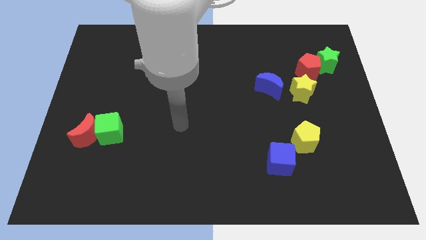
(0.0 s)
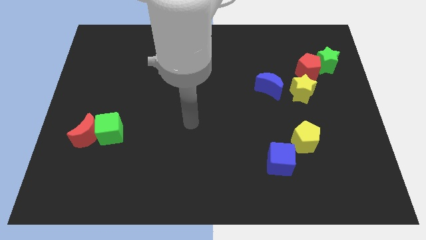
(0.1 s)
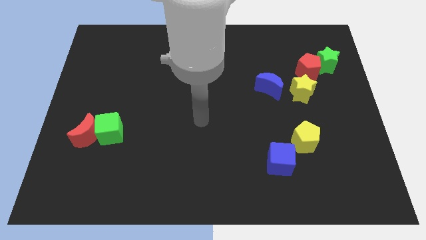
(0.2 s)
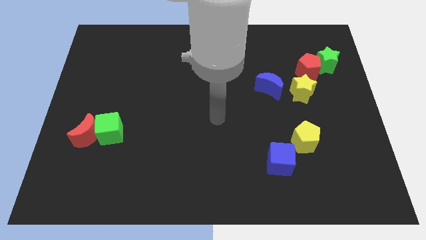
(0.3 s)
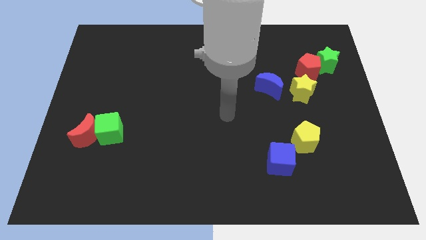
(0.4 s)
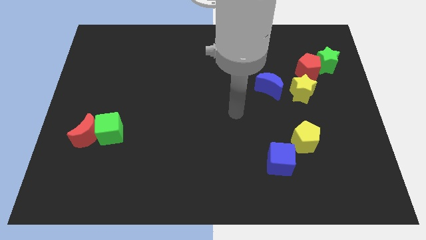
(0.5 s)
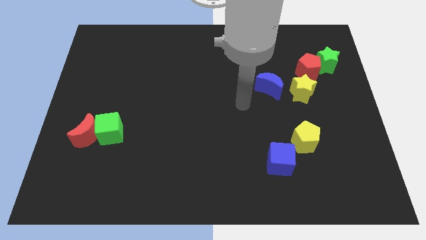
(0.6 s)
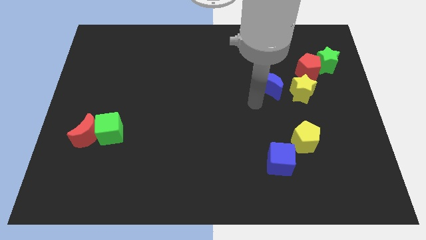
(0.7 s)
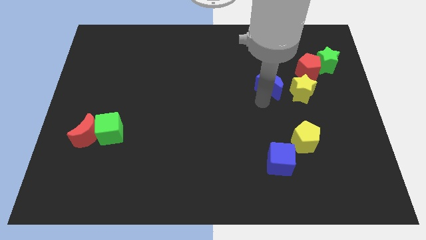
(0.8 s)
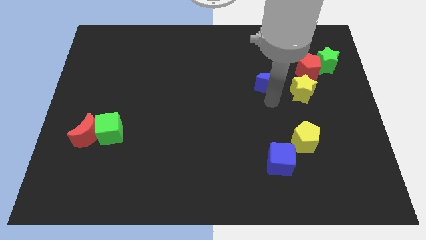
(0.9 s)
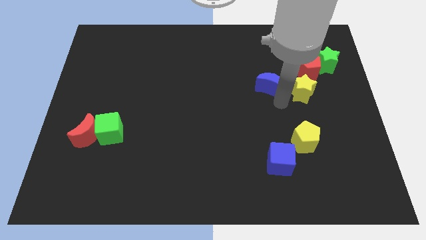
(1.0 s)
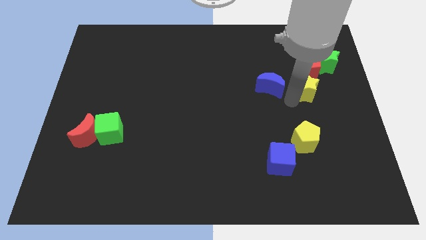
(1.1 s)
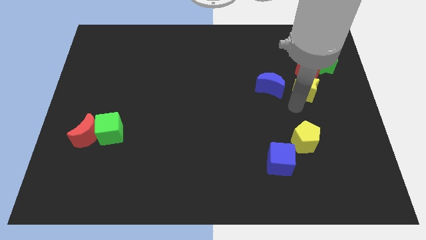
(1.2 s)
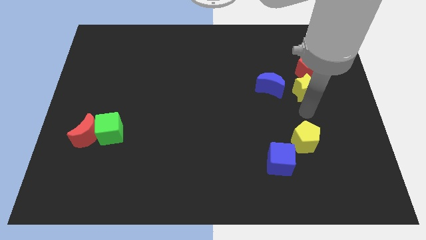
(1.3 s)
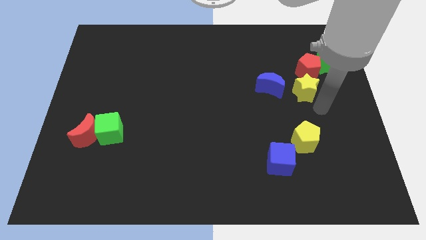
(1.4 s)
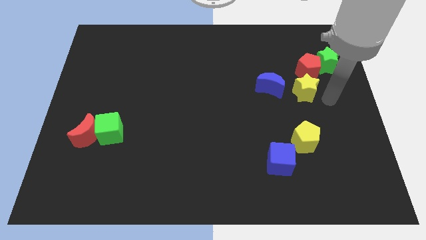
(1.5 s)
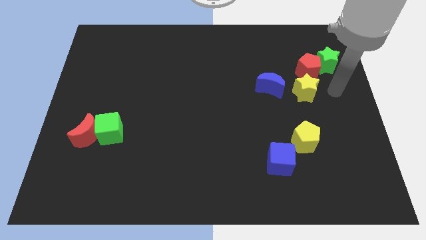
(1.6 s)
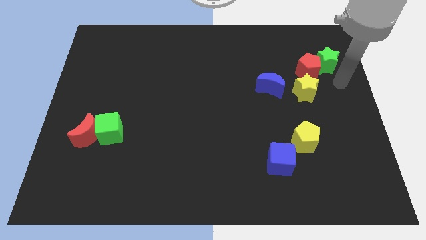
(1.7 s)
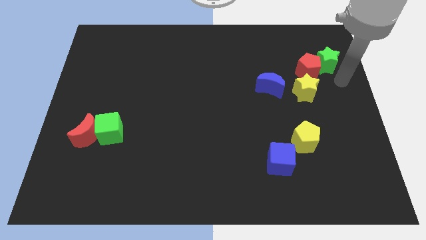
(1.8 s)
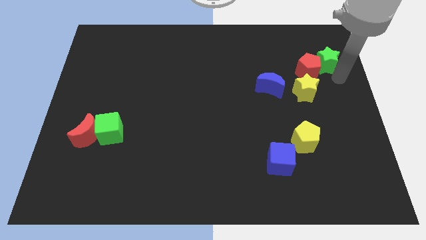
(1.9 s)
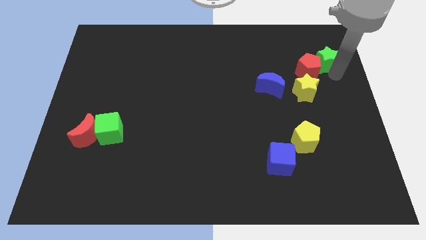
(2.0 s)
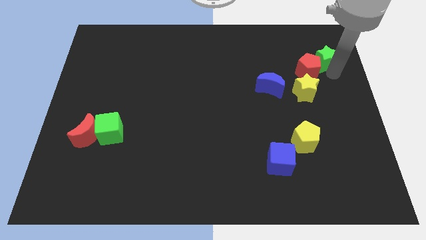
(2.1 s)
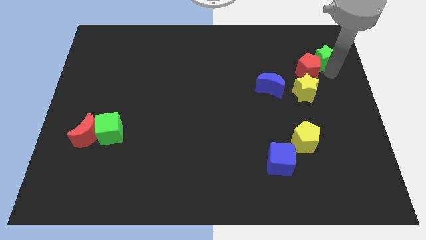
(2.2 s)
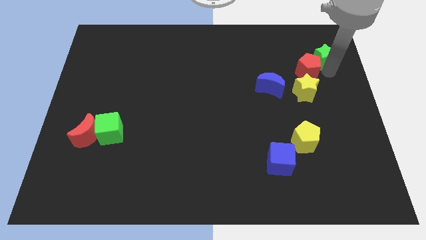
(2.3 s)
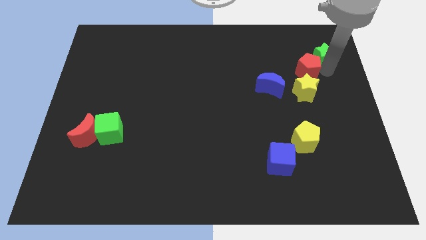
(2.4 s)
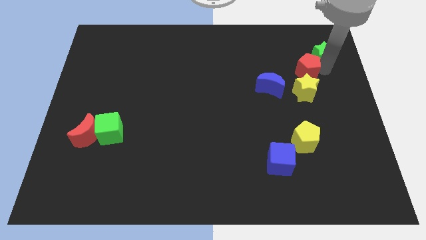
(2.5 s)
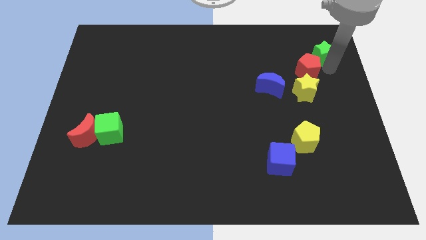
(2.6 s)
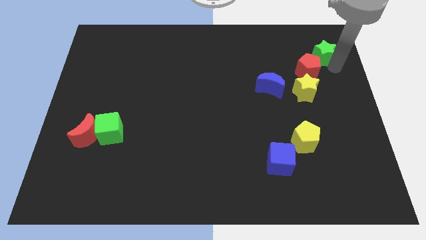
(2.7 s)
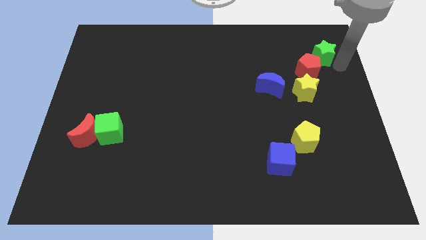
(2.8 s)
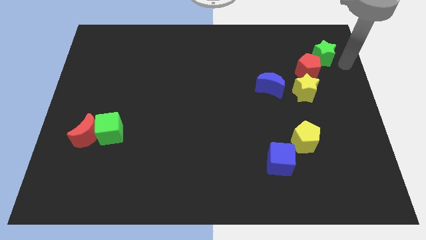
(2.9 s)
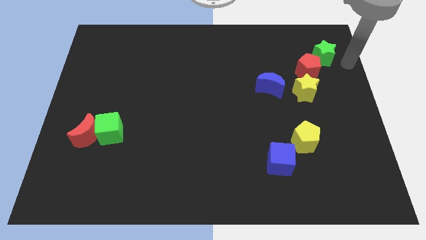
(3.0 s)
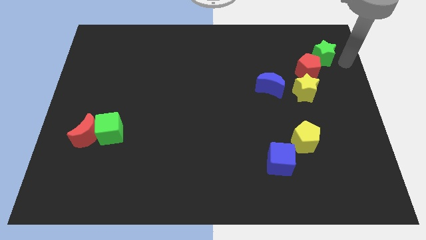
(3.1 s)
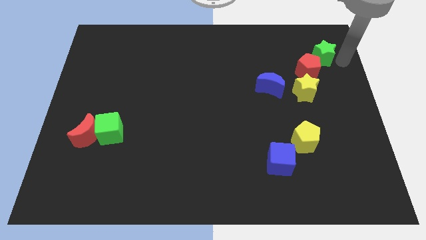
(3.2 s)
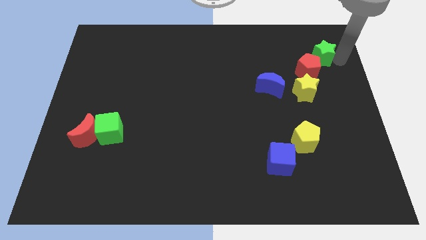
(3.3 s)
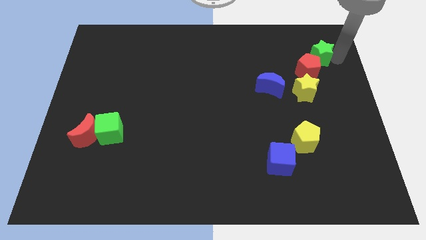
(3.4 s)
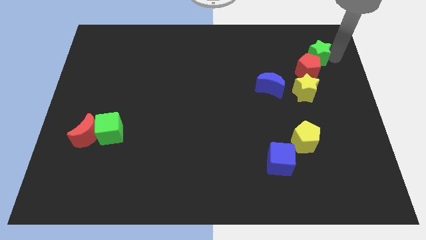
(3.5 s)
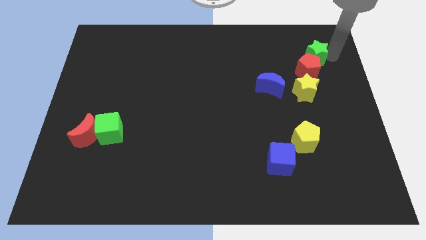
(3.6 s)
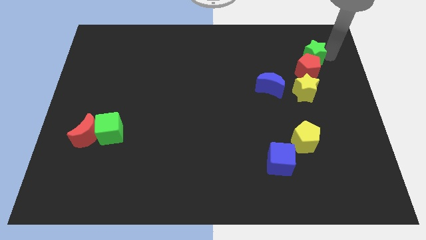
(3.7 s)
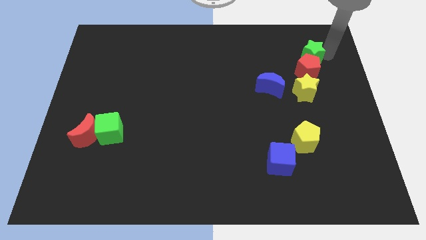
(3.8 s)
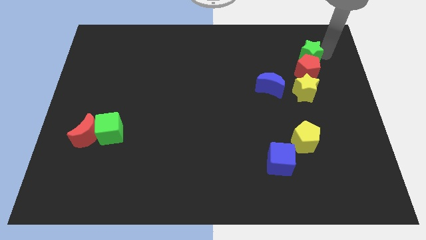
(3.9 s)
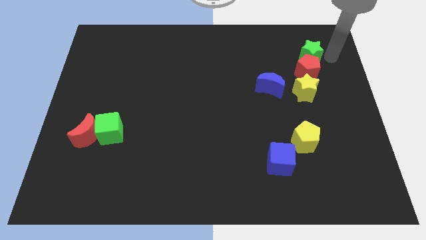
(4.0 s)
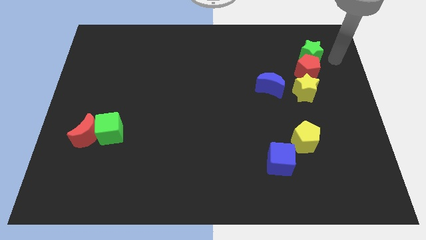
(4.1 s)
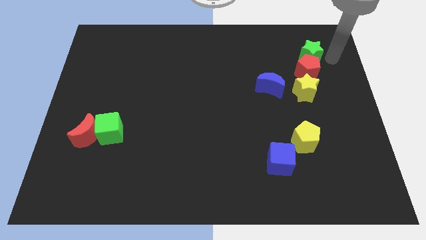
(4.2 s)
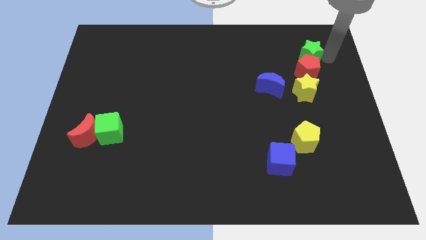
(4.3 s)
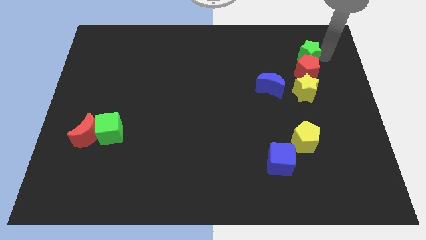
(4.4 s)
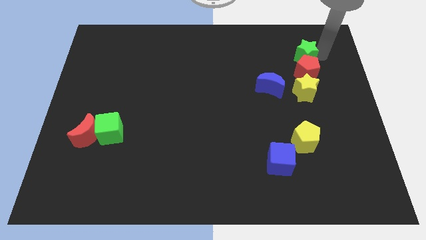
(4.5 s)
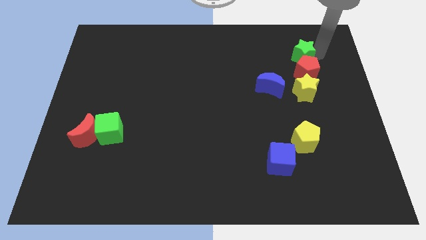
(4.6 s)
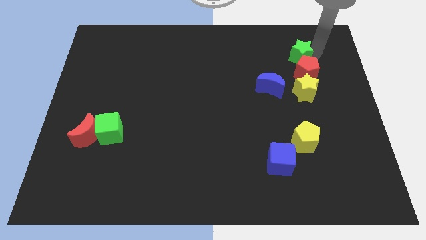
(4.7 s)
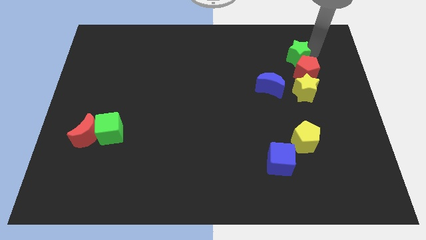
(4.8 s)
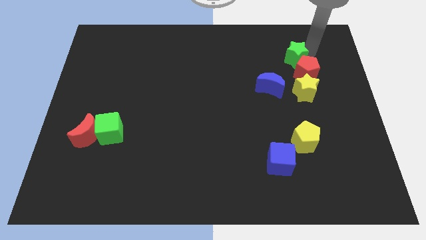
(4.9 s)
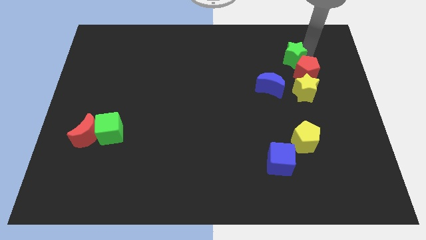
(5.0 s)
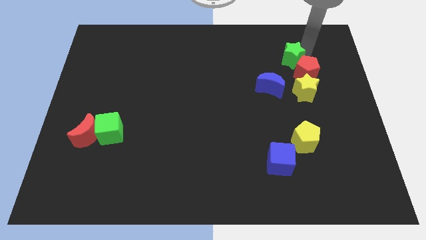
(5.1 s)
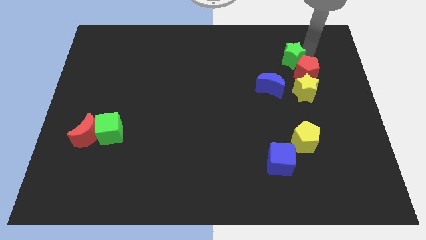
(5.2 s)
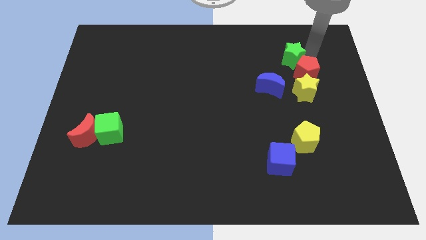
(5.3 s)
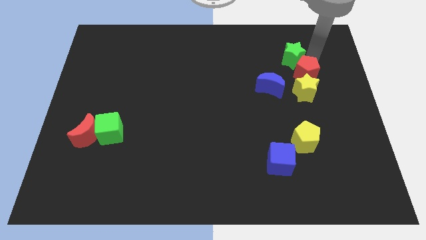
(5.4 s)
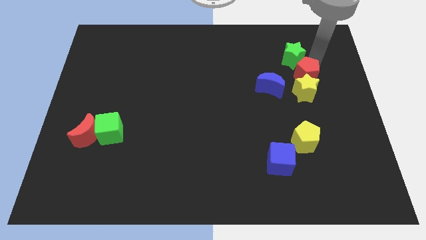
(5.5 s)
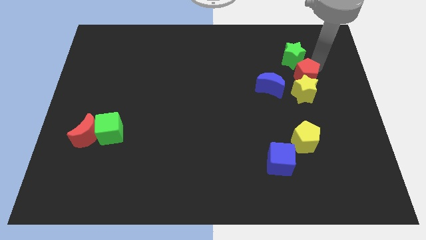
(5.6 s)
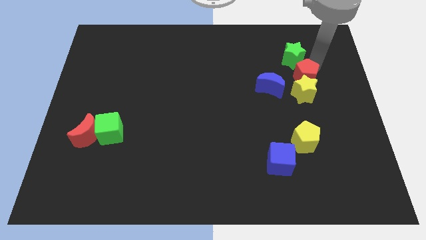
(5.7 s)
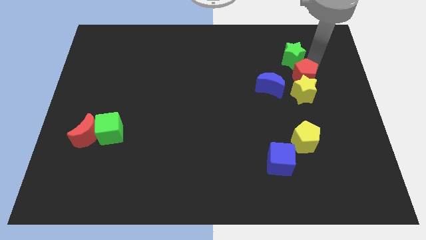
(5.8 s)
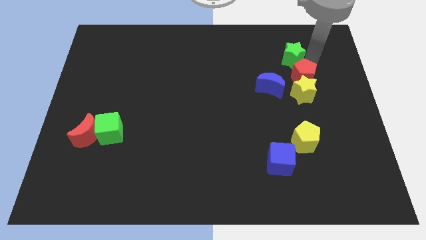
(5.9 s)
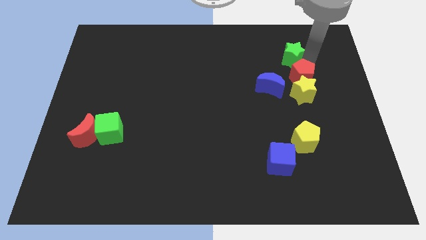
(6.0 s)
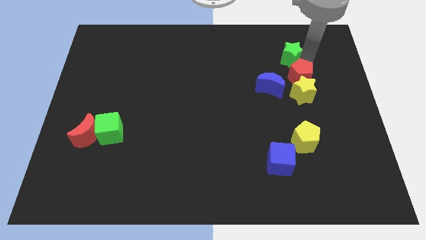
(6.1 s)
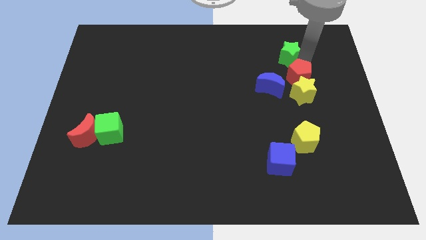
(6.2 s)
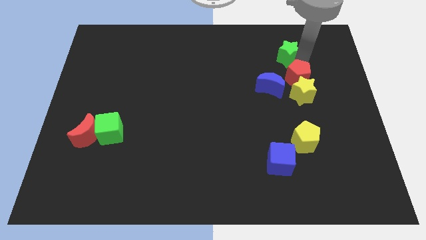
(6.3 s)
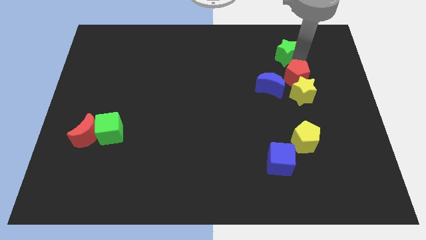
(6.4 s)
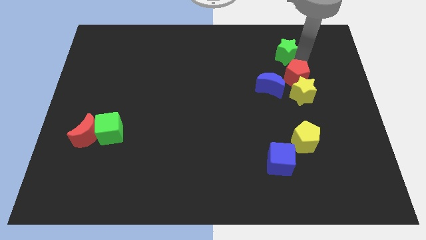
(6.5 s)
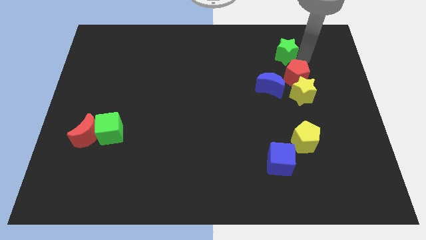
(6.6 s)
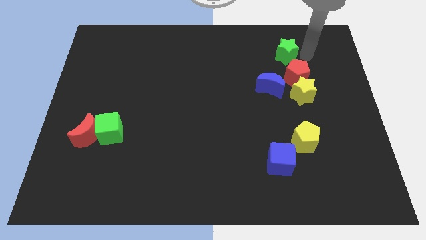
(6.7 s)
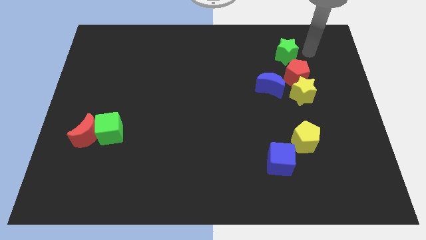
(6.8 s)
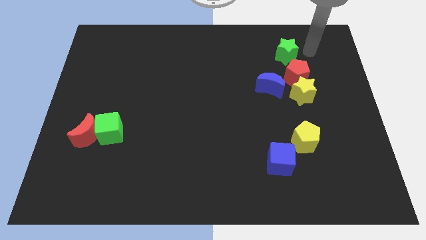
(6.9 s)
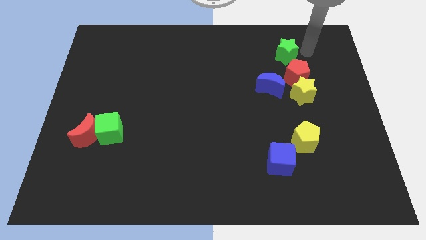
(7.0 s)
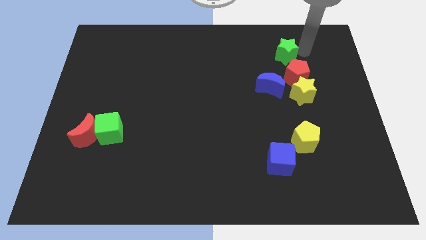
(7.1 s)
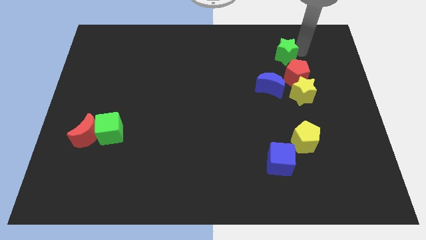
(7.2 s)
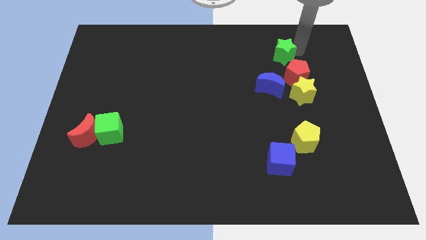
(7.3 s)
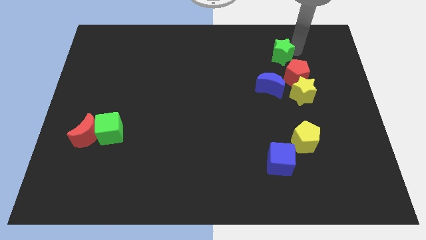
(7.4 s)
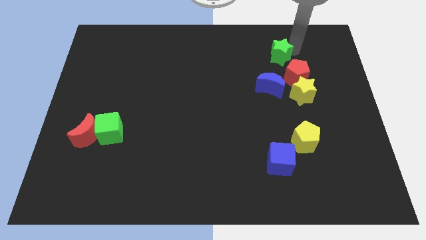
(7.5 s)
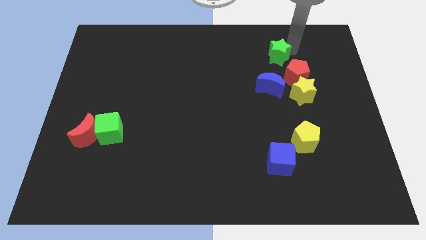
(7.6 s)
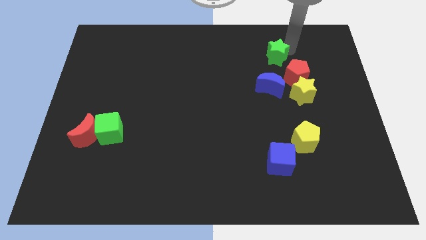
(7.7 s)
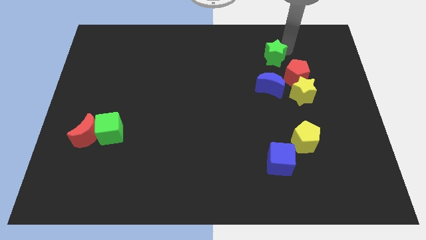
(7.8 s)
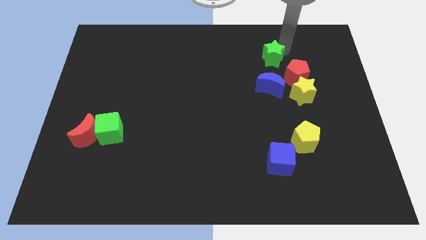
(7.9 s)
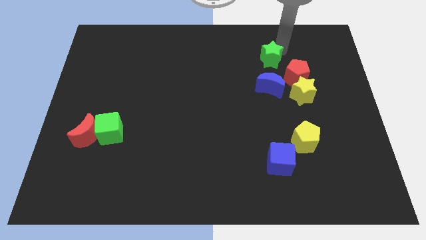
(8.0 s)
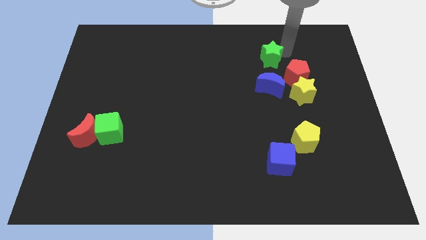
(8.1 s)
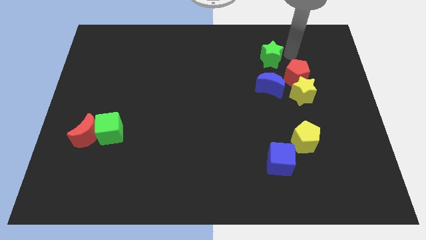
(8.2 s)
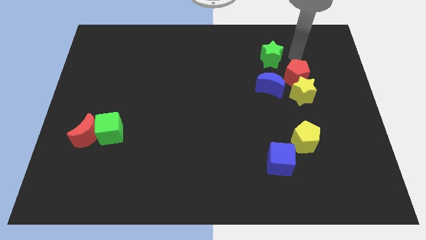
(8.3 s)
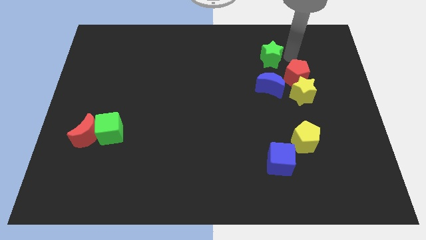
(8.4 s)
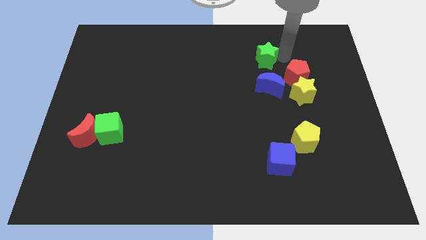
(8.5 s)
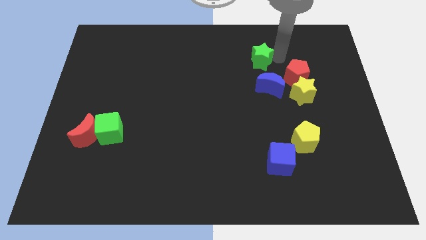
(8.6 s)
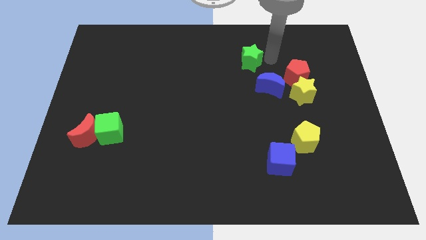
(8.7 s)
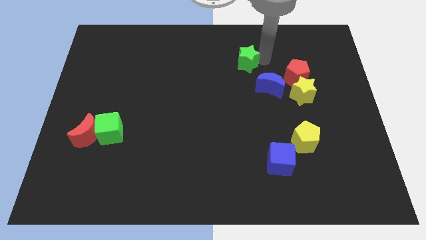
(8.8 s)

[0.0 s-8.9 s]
move the green star to the left
